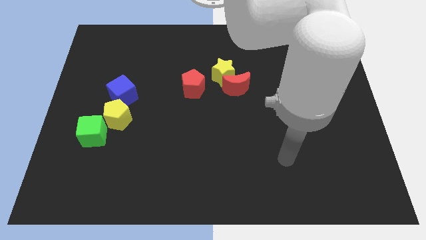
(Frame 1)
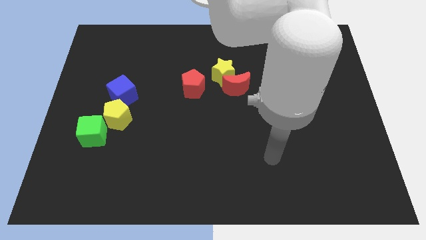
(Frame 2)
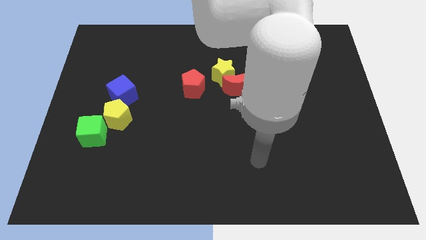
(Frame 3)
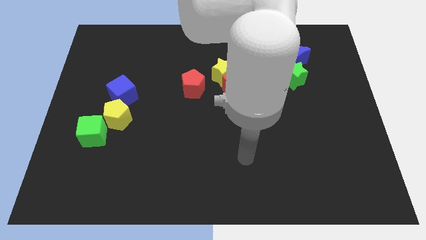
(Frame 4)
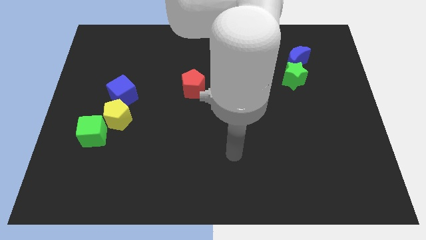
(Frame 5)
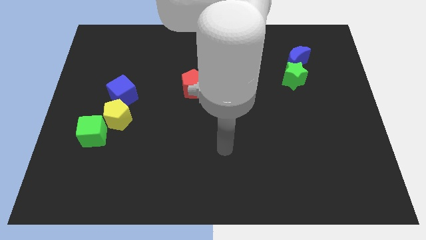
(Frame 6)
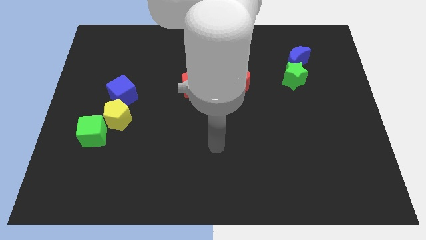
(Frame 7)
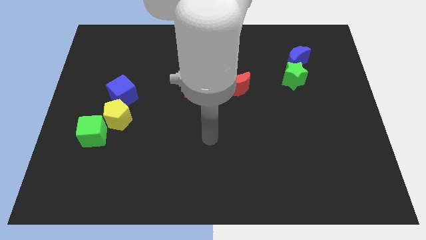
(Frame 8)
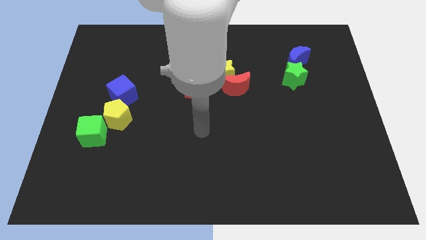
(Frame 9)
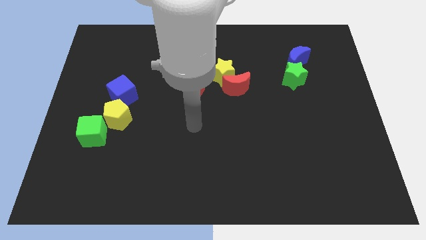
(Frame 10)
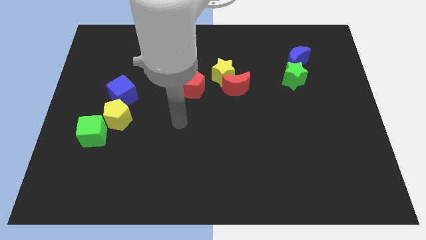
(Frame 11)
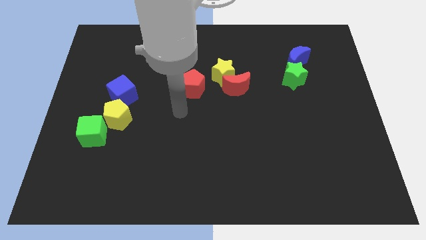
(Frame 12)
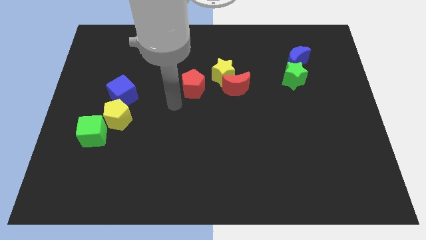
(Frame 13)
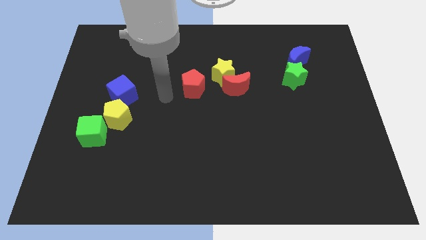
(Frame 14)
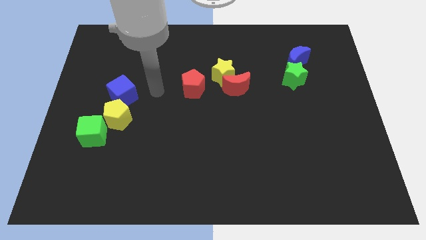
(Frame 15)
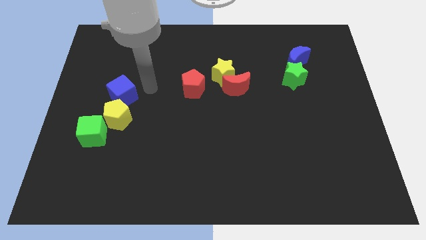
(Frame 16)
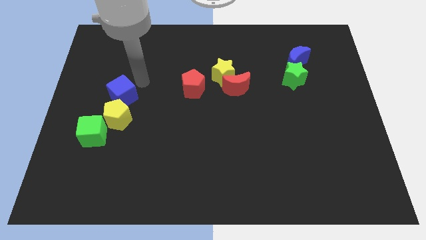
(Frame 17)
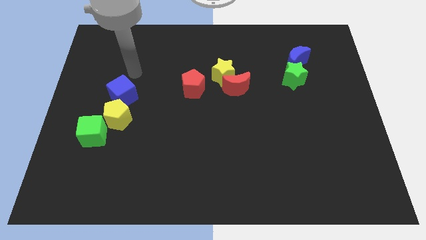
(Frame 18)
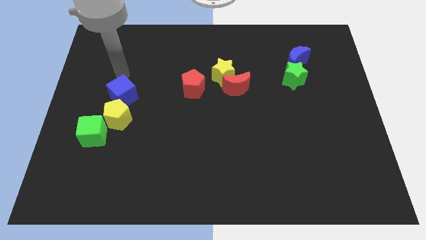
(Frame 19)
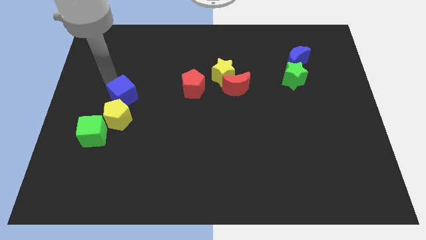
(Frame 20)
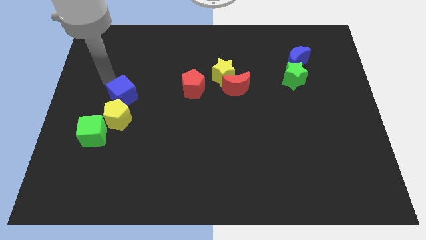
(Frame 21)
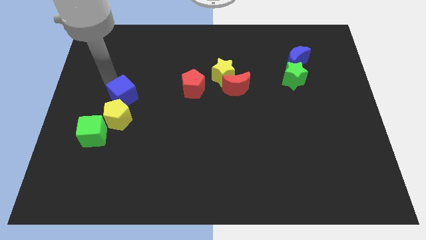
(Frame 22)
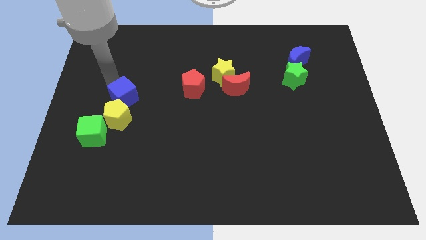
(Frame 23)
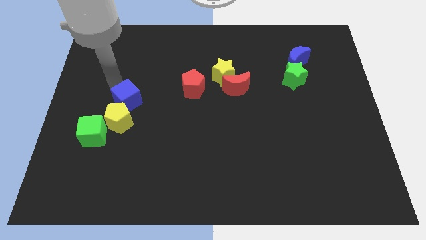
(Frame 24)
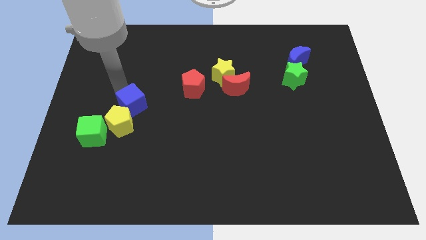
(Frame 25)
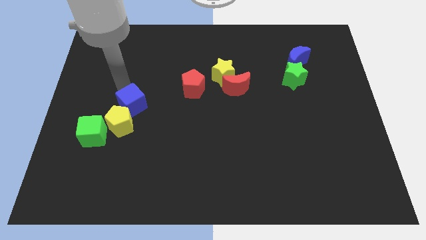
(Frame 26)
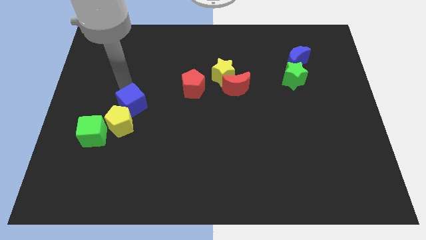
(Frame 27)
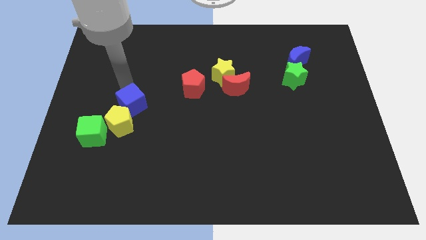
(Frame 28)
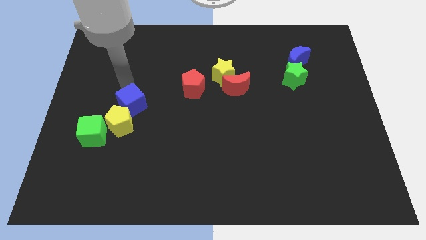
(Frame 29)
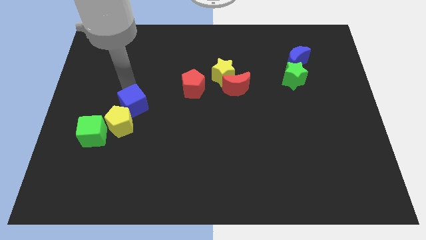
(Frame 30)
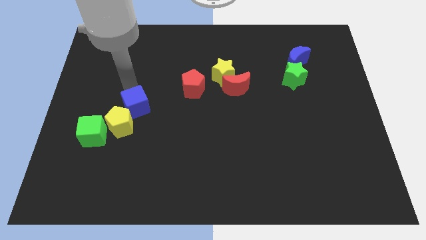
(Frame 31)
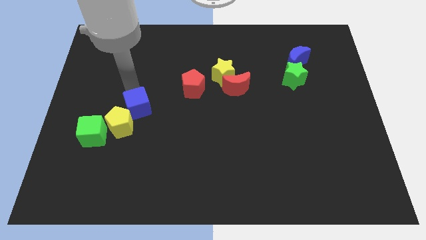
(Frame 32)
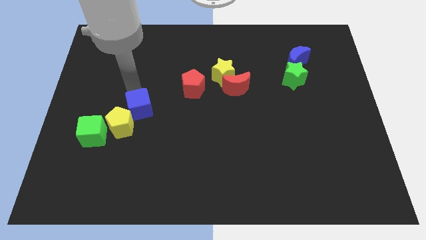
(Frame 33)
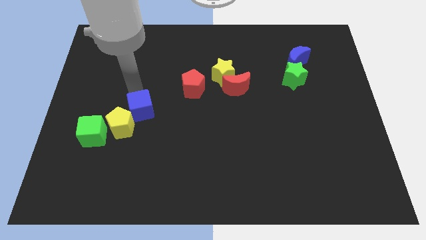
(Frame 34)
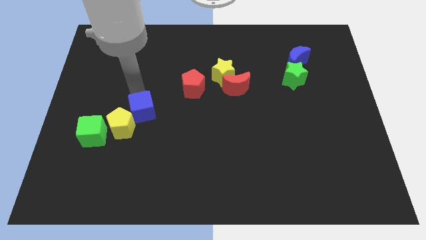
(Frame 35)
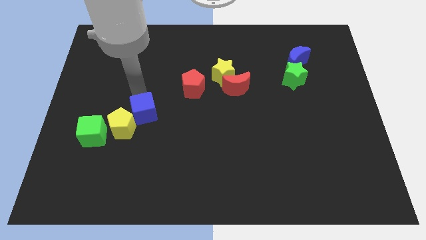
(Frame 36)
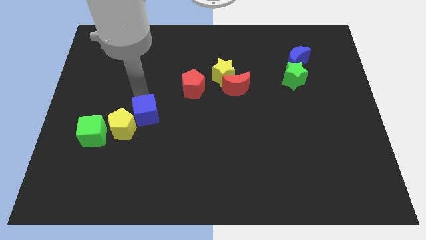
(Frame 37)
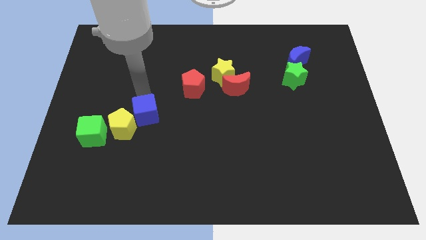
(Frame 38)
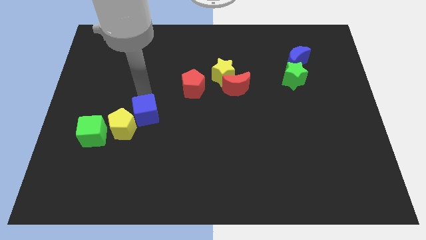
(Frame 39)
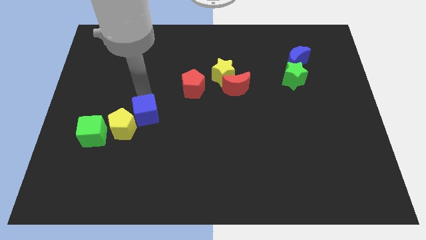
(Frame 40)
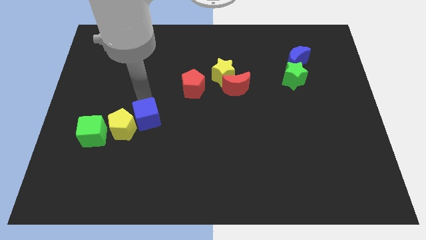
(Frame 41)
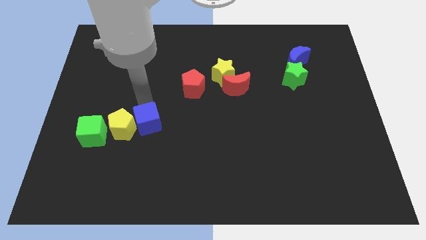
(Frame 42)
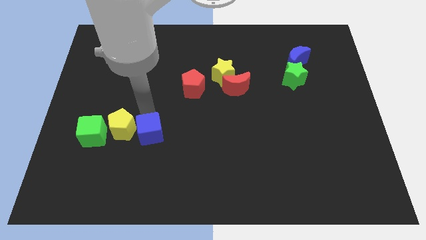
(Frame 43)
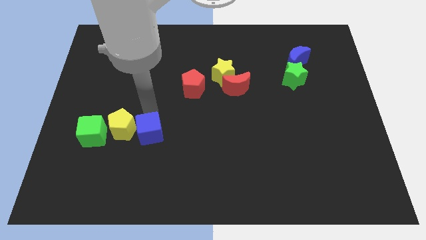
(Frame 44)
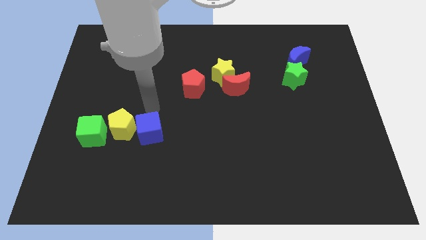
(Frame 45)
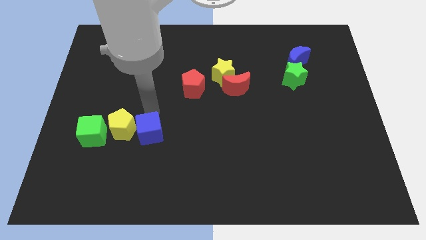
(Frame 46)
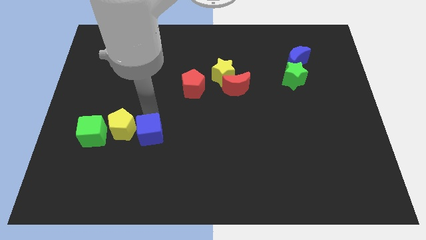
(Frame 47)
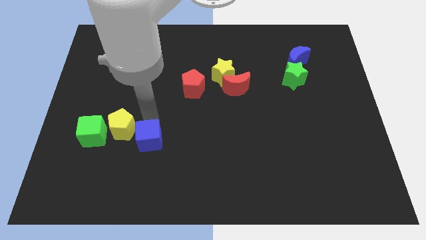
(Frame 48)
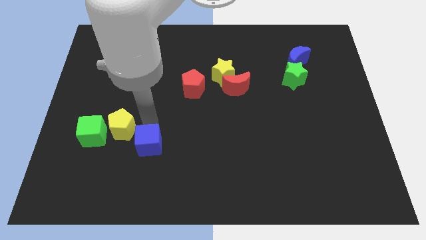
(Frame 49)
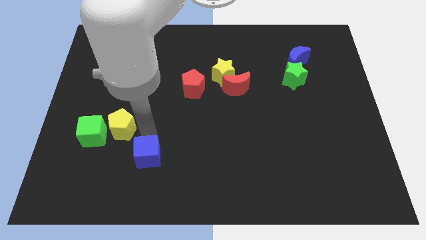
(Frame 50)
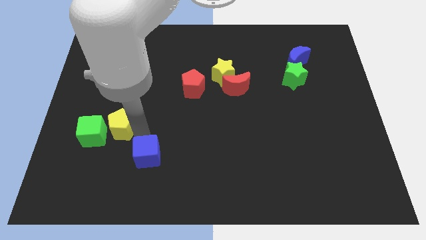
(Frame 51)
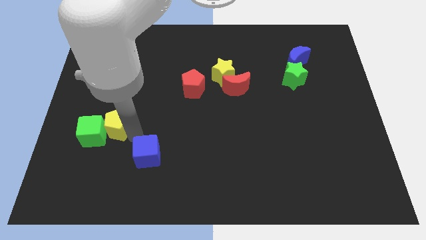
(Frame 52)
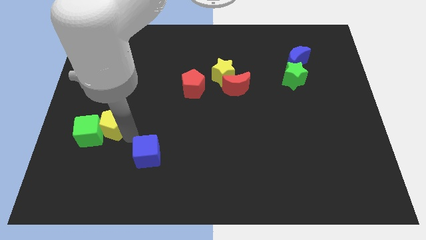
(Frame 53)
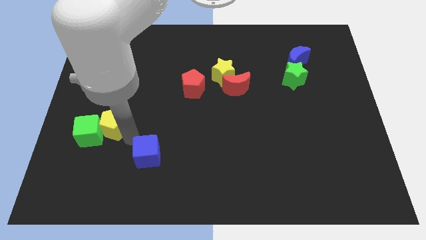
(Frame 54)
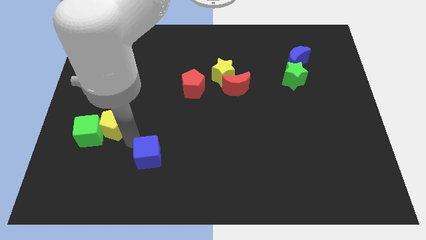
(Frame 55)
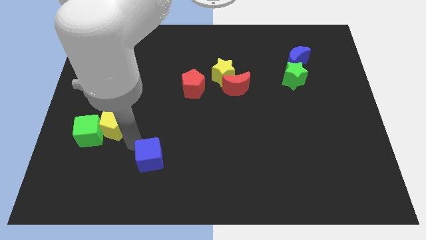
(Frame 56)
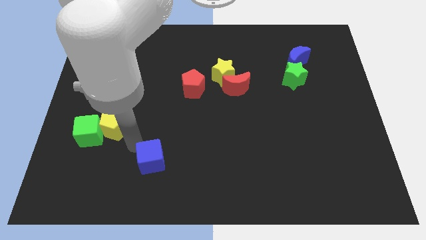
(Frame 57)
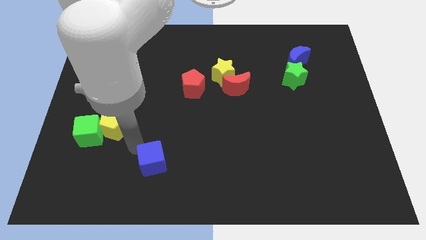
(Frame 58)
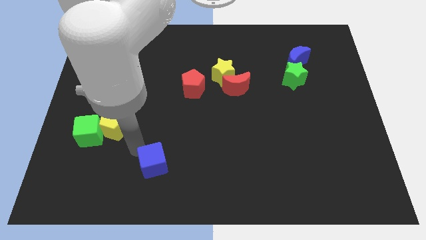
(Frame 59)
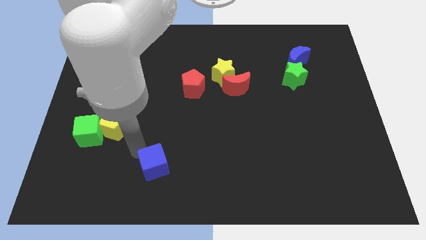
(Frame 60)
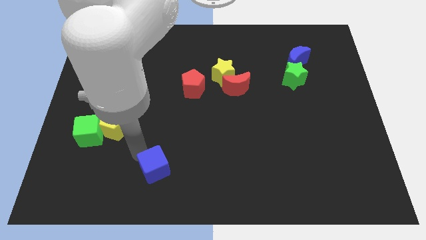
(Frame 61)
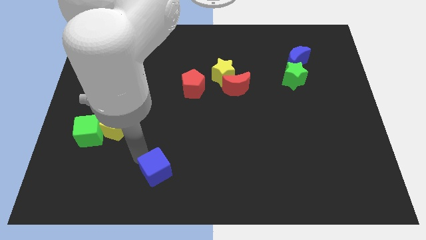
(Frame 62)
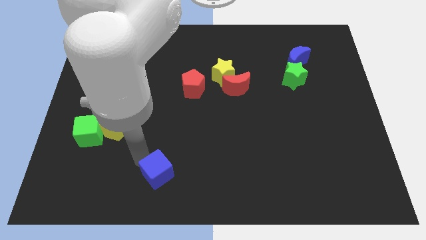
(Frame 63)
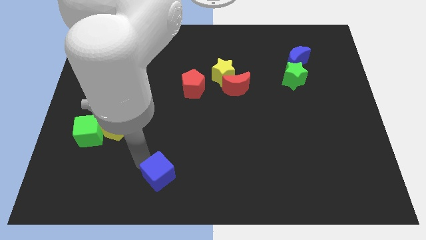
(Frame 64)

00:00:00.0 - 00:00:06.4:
push the blue cube to the bottom
